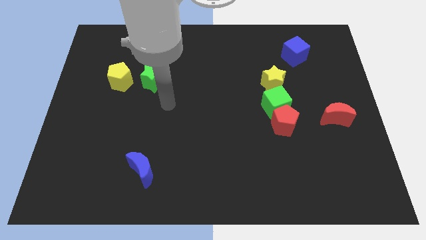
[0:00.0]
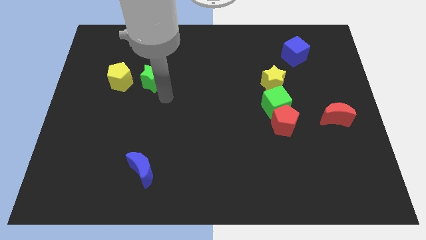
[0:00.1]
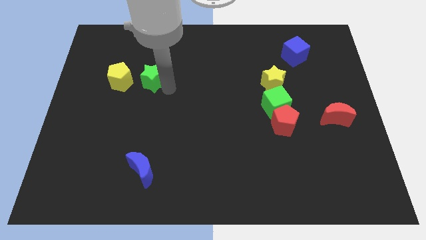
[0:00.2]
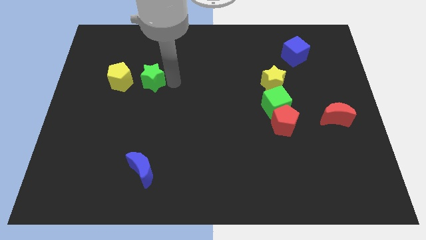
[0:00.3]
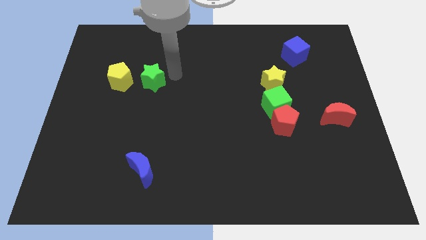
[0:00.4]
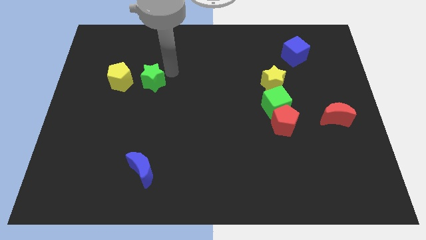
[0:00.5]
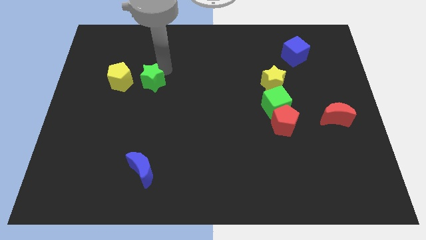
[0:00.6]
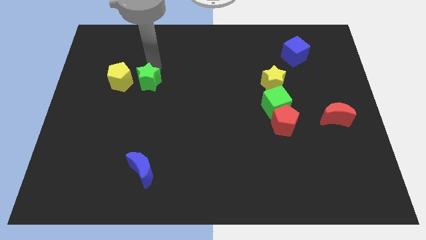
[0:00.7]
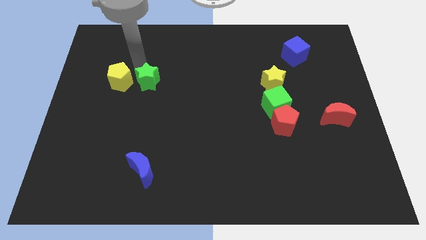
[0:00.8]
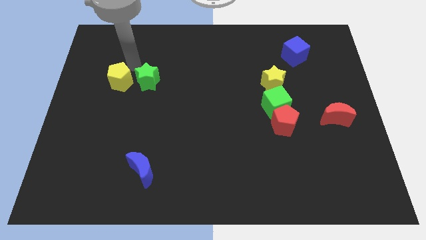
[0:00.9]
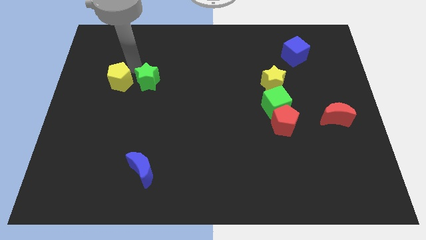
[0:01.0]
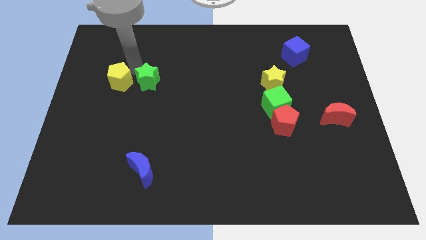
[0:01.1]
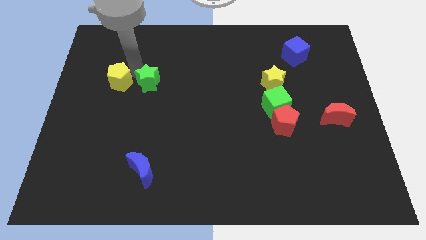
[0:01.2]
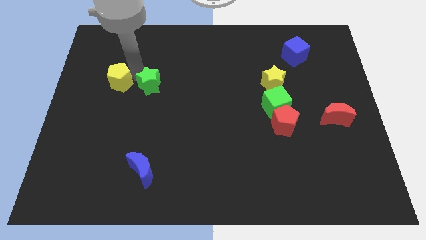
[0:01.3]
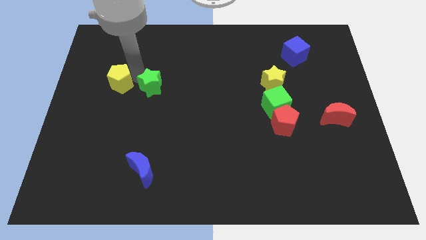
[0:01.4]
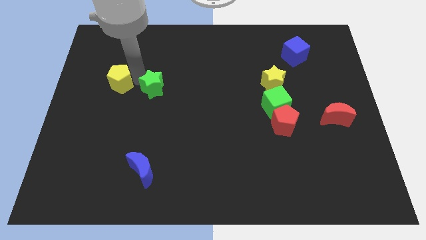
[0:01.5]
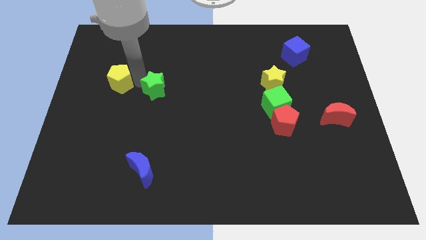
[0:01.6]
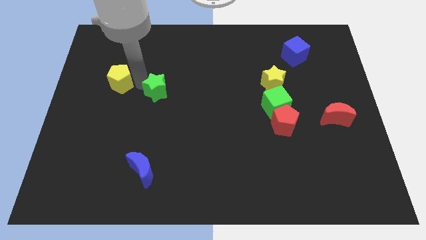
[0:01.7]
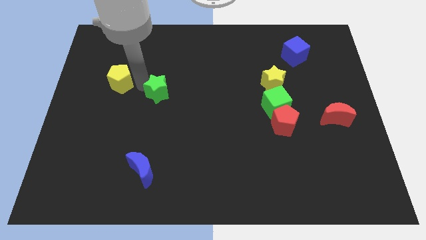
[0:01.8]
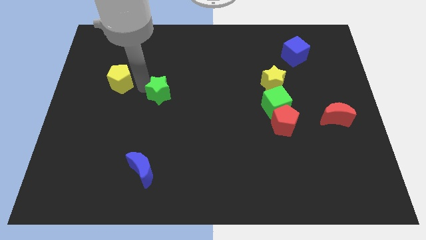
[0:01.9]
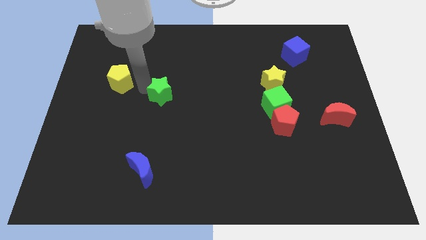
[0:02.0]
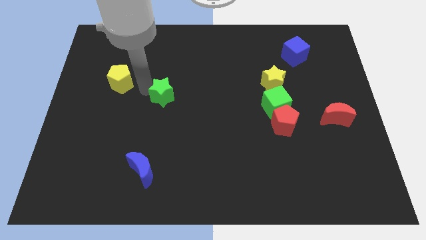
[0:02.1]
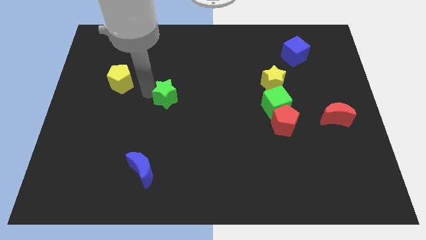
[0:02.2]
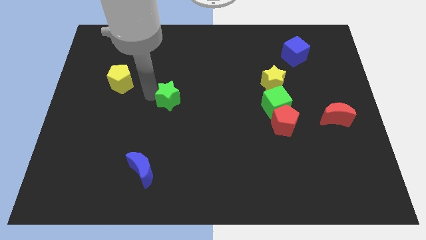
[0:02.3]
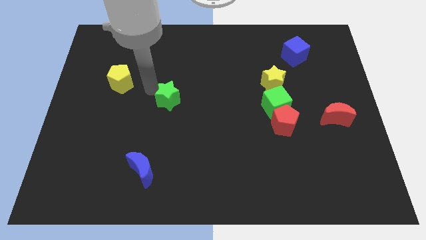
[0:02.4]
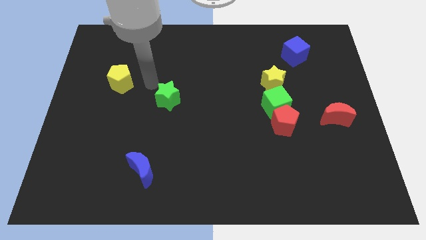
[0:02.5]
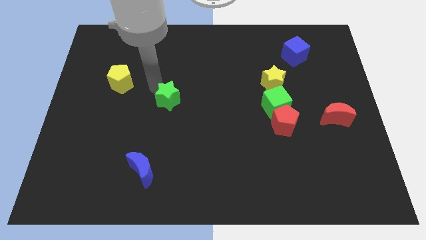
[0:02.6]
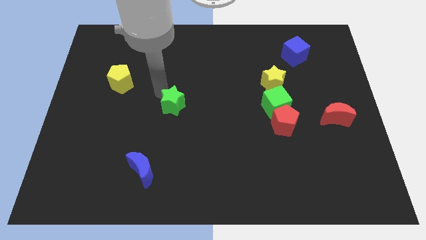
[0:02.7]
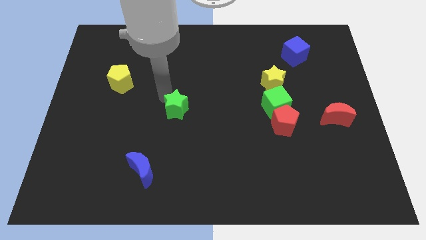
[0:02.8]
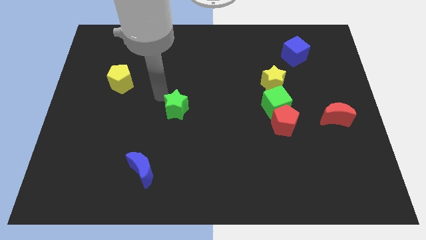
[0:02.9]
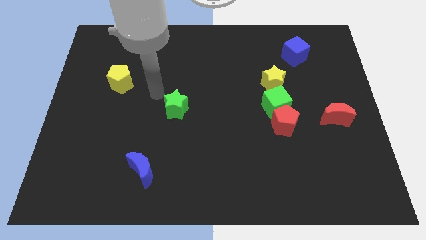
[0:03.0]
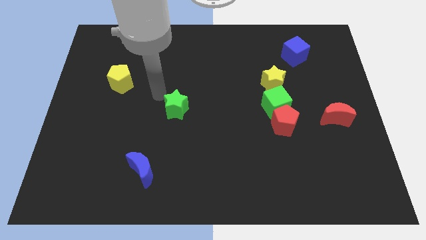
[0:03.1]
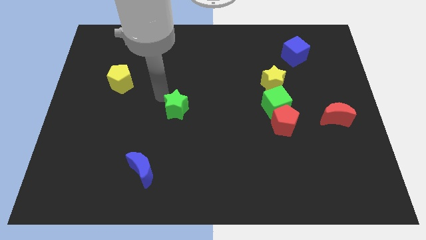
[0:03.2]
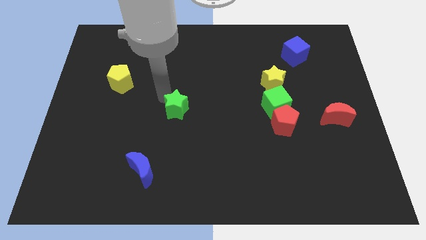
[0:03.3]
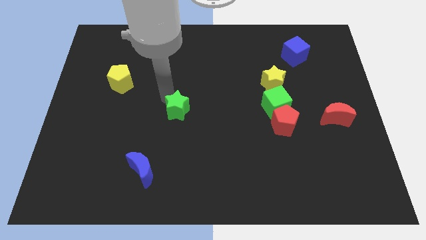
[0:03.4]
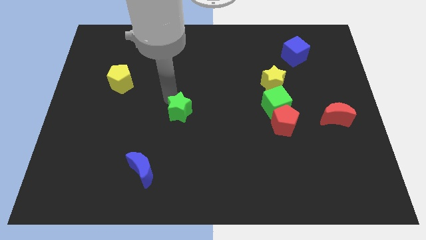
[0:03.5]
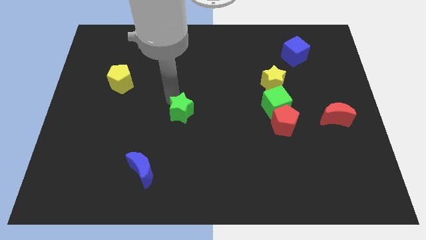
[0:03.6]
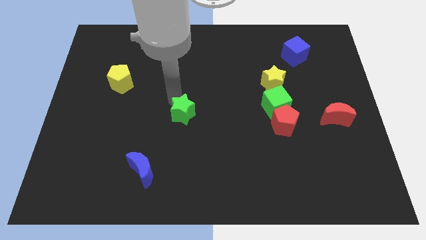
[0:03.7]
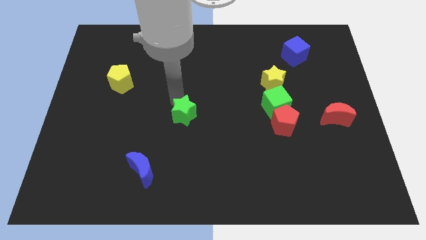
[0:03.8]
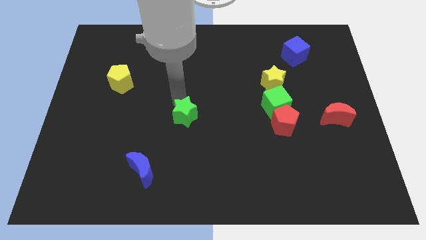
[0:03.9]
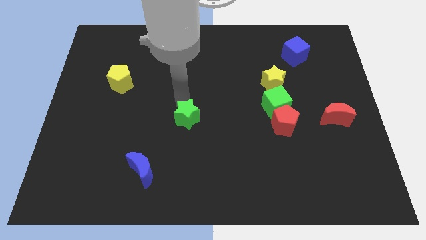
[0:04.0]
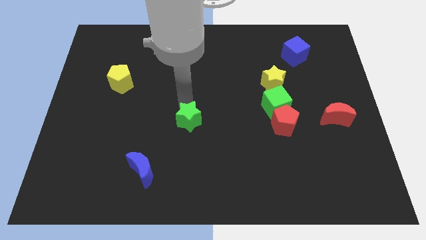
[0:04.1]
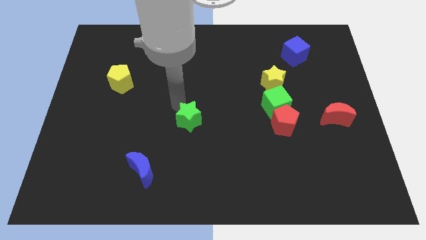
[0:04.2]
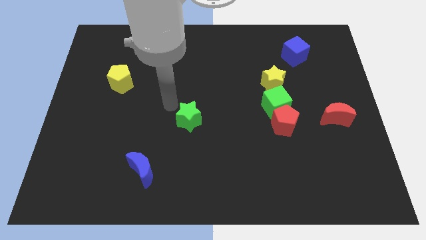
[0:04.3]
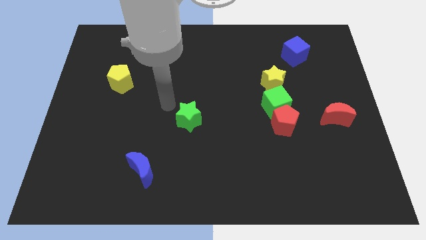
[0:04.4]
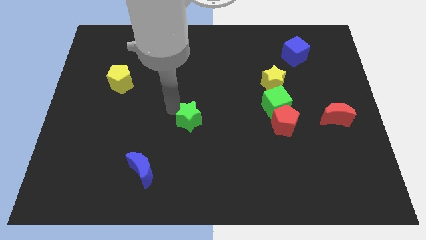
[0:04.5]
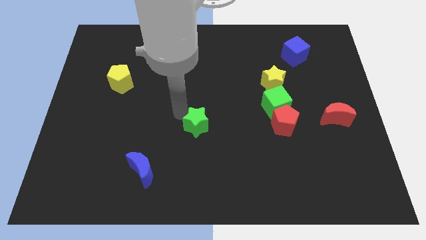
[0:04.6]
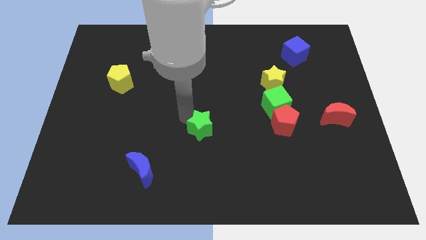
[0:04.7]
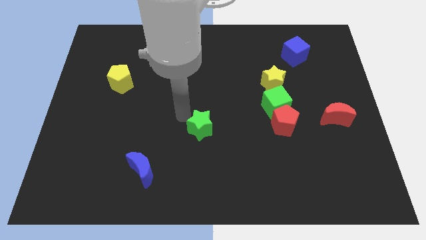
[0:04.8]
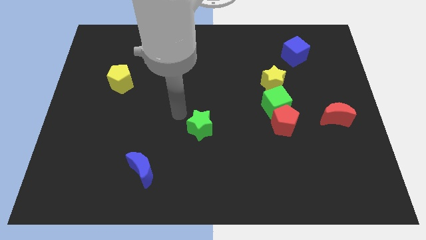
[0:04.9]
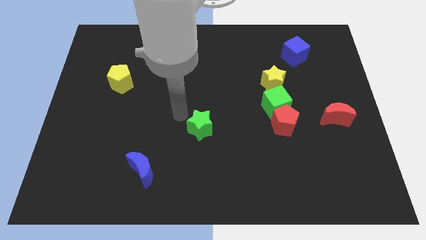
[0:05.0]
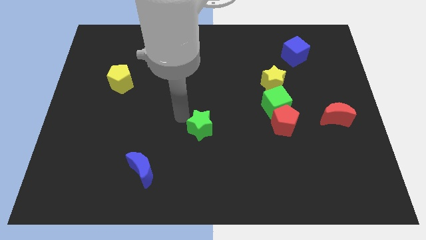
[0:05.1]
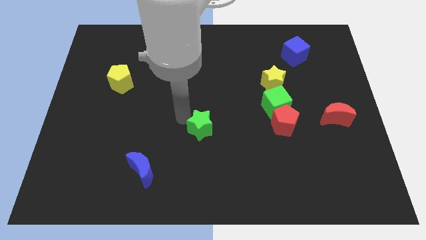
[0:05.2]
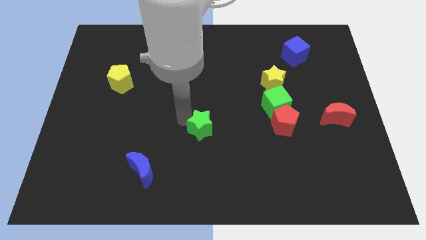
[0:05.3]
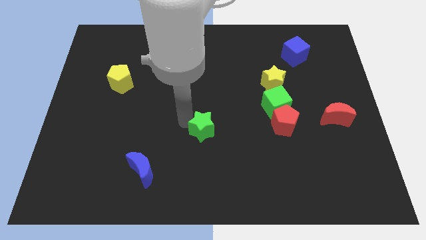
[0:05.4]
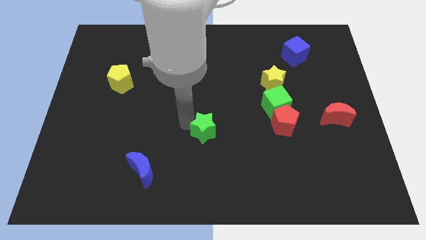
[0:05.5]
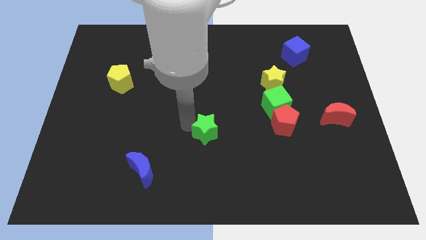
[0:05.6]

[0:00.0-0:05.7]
move the green star downwards and then to the right

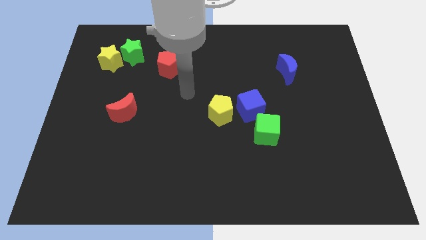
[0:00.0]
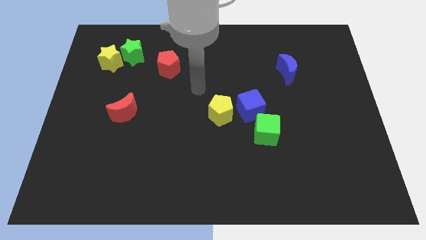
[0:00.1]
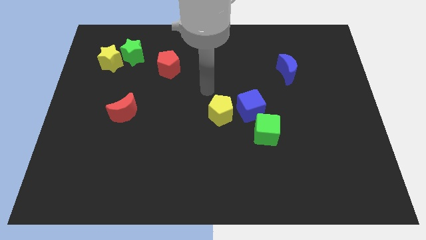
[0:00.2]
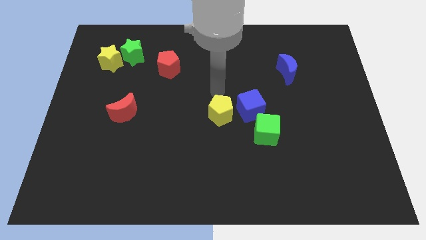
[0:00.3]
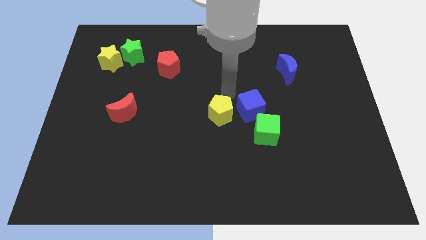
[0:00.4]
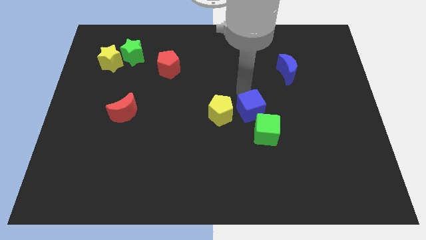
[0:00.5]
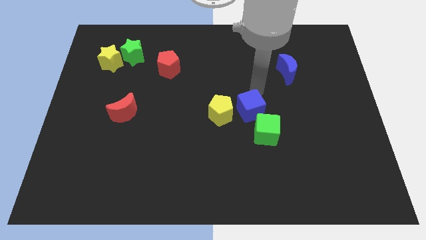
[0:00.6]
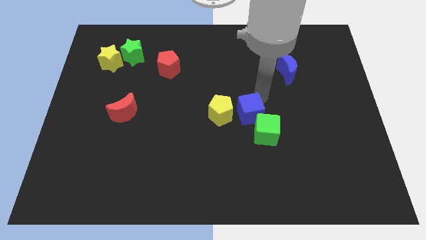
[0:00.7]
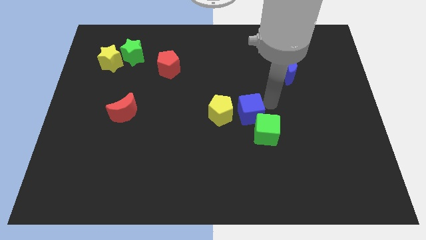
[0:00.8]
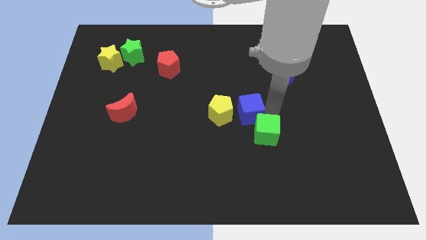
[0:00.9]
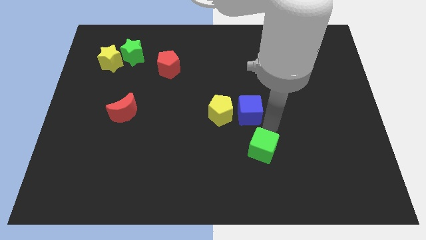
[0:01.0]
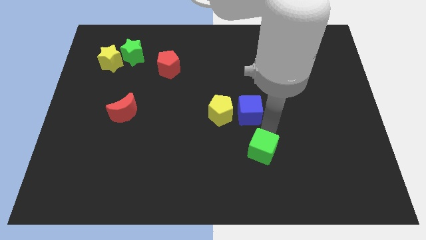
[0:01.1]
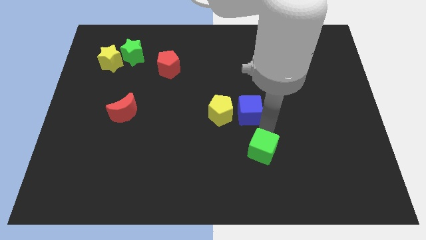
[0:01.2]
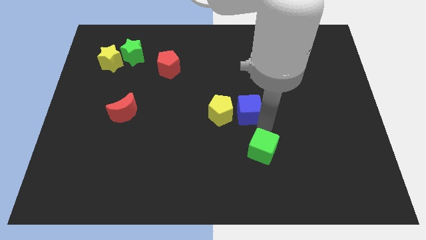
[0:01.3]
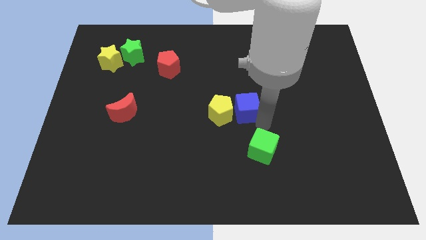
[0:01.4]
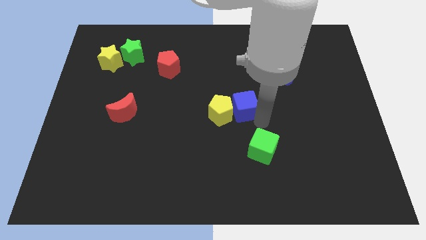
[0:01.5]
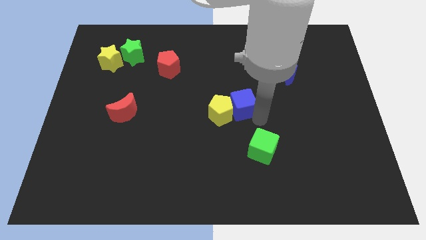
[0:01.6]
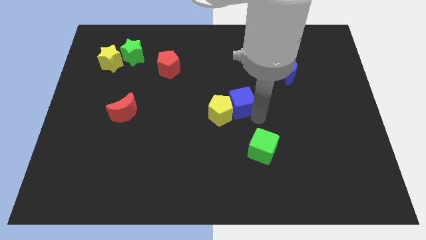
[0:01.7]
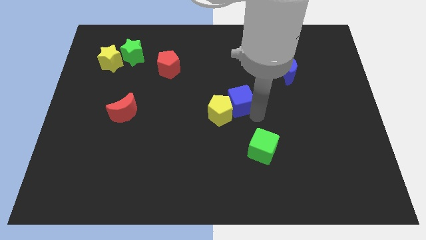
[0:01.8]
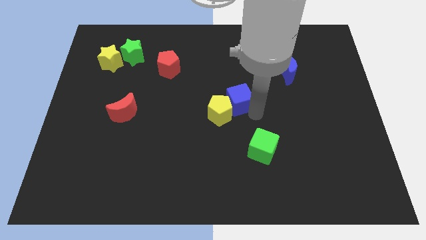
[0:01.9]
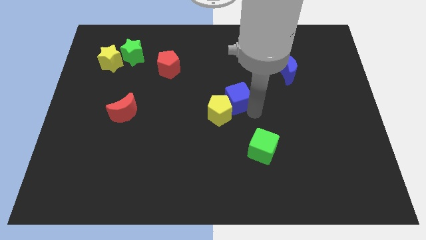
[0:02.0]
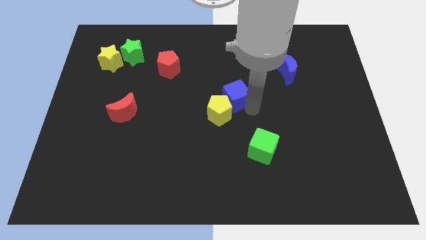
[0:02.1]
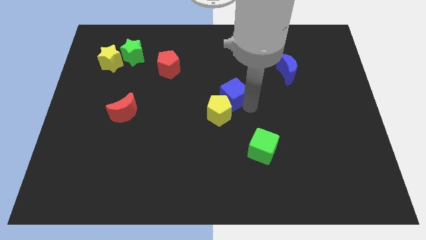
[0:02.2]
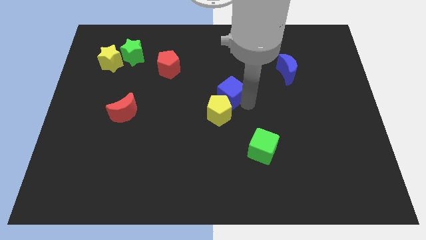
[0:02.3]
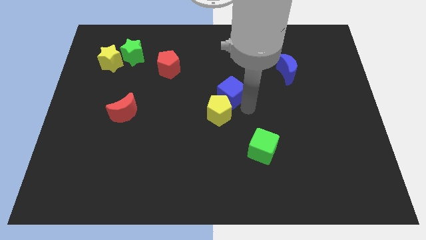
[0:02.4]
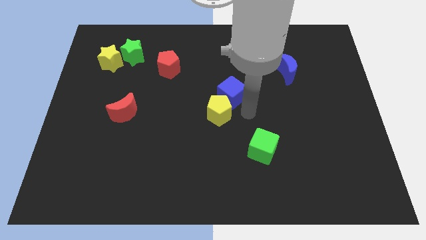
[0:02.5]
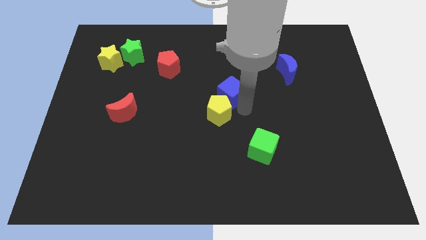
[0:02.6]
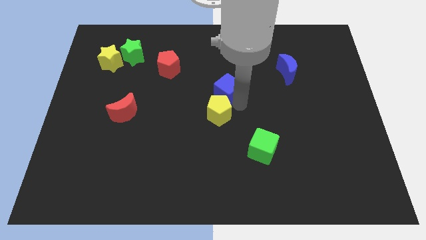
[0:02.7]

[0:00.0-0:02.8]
slightly move the blue cube diagonally upwards and to the left
